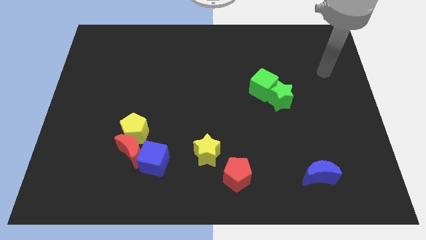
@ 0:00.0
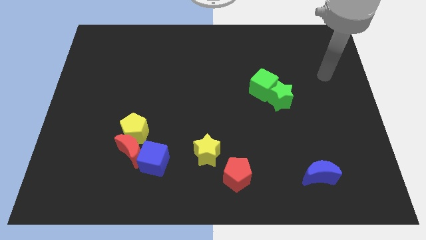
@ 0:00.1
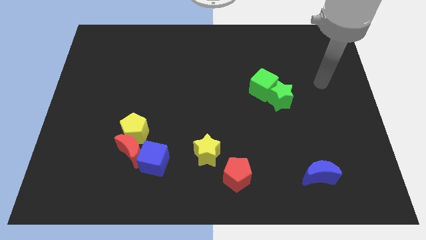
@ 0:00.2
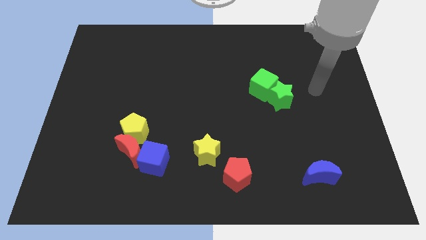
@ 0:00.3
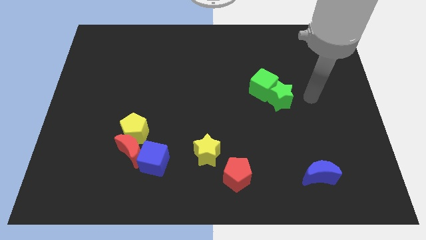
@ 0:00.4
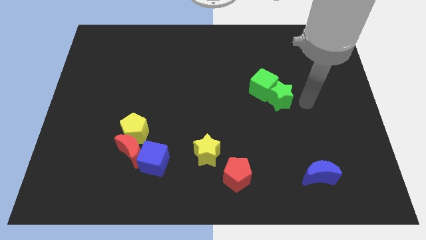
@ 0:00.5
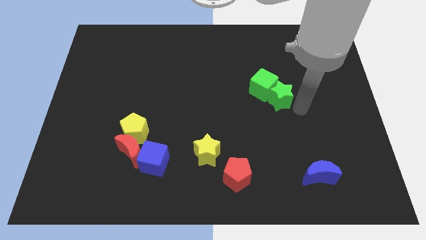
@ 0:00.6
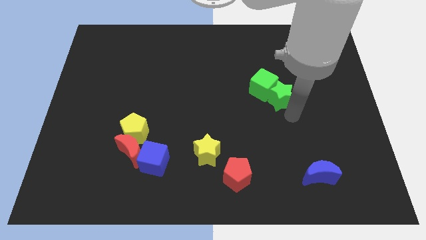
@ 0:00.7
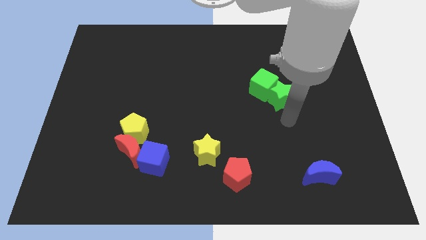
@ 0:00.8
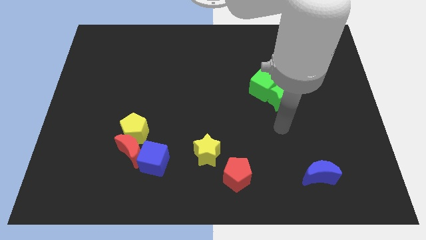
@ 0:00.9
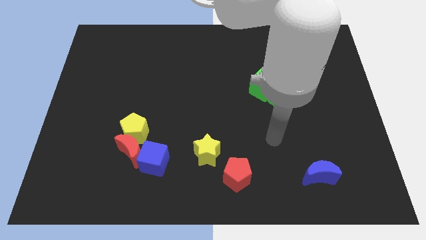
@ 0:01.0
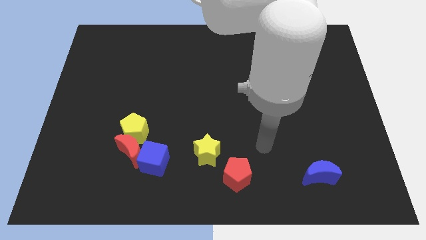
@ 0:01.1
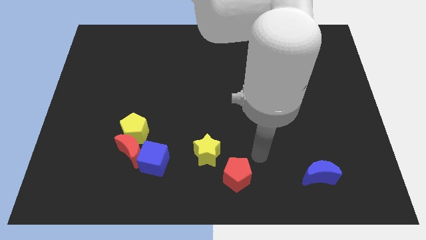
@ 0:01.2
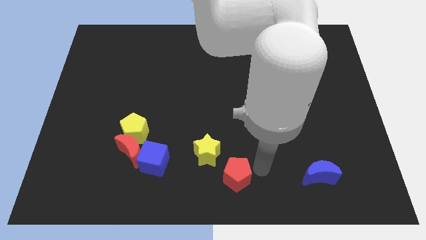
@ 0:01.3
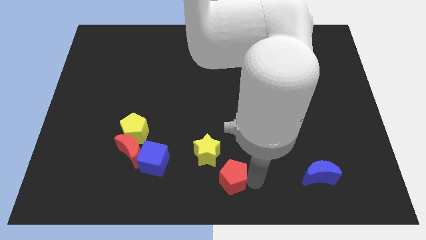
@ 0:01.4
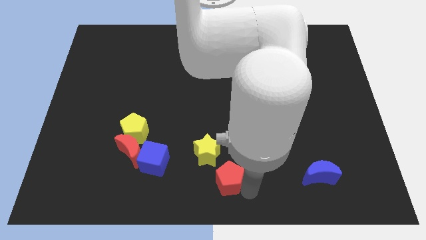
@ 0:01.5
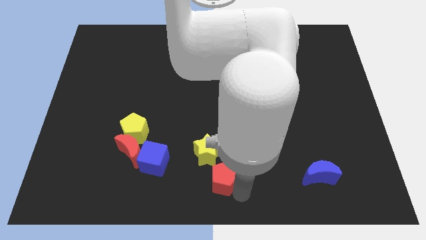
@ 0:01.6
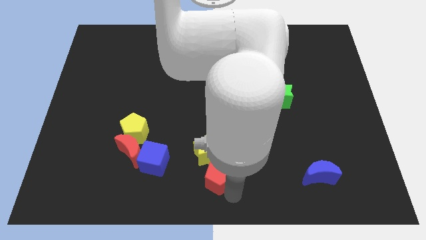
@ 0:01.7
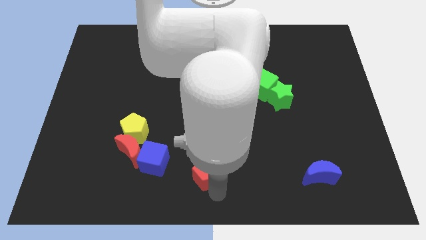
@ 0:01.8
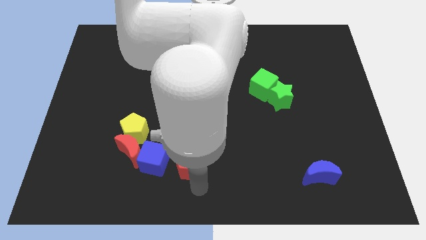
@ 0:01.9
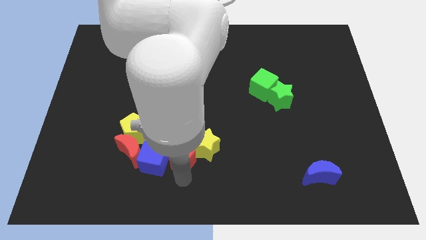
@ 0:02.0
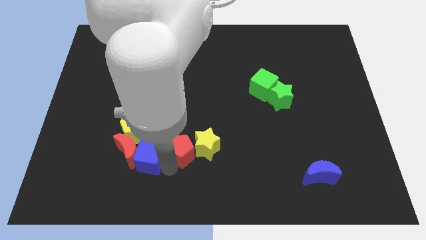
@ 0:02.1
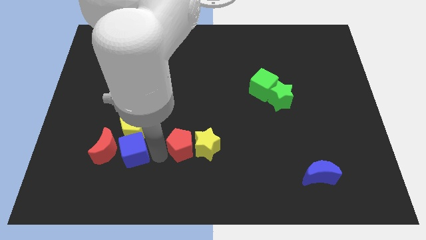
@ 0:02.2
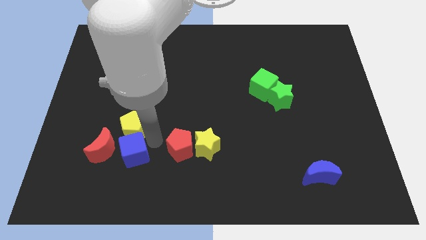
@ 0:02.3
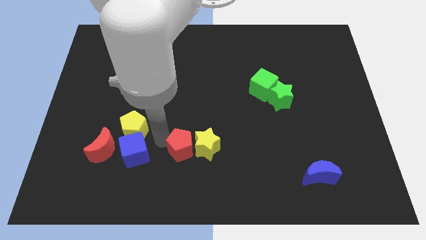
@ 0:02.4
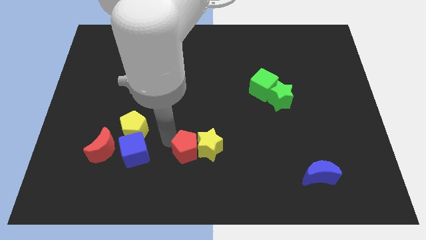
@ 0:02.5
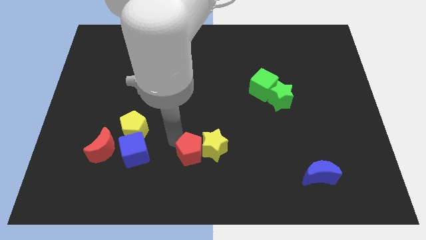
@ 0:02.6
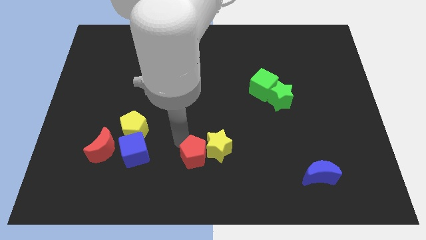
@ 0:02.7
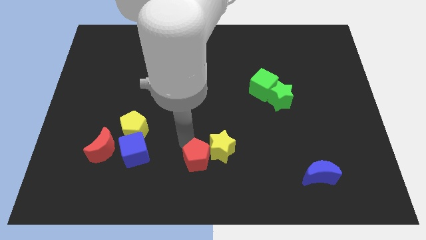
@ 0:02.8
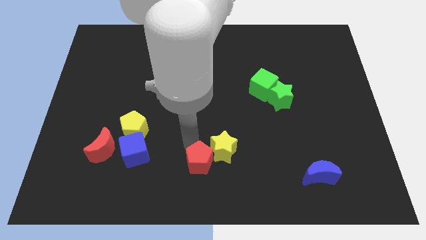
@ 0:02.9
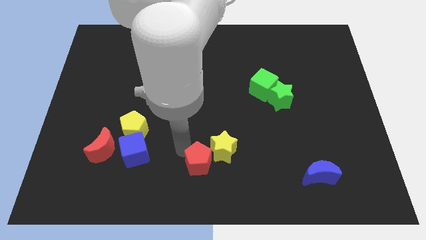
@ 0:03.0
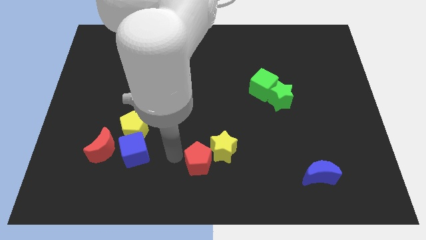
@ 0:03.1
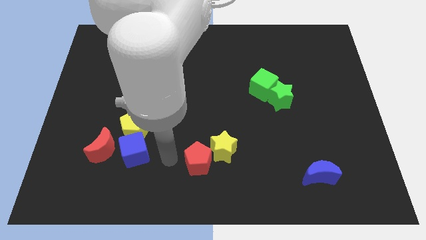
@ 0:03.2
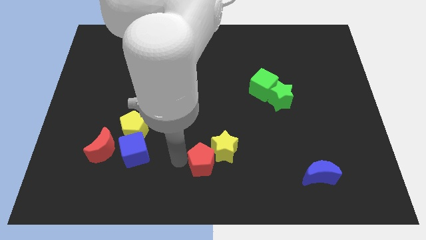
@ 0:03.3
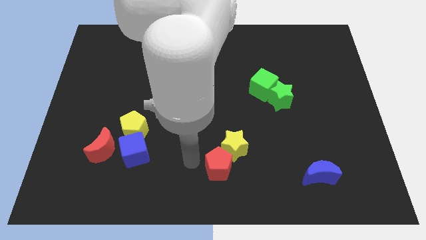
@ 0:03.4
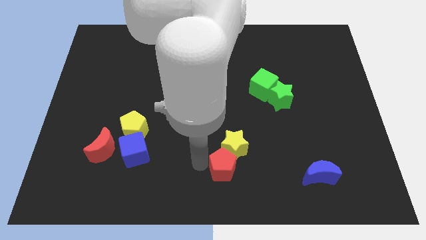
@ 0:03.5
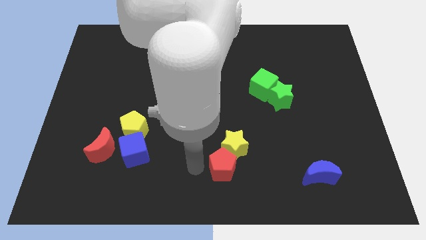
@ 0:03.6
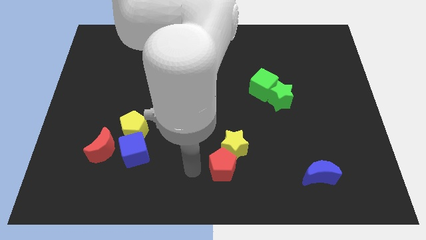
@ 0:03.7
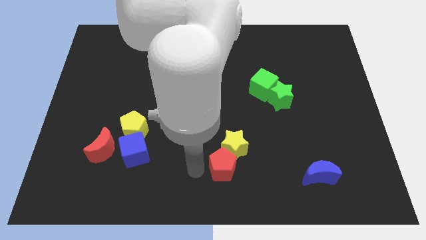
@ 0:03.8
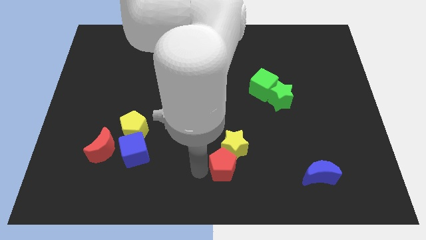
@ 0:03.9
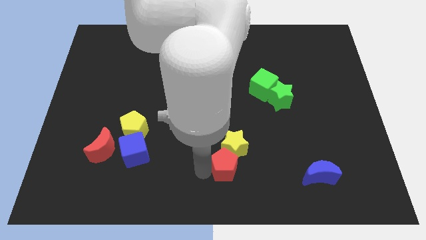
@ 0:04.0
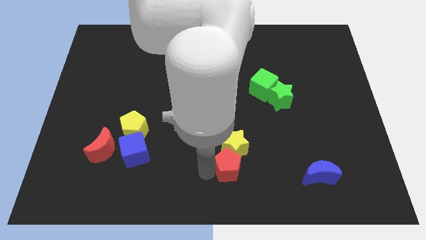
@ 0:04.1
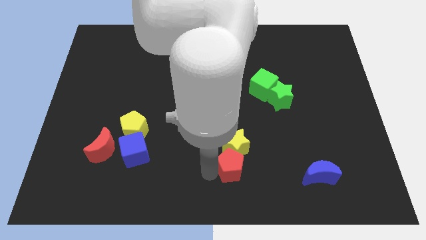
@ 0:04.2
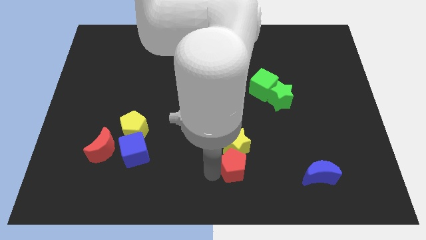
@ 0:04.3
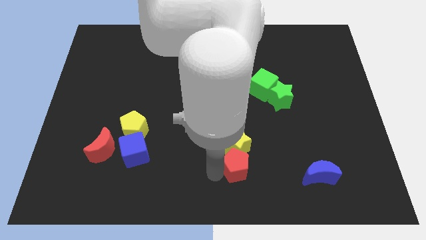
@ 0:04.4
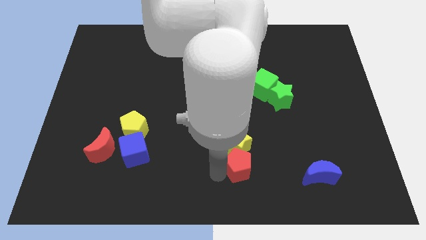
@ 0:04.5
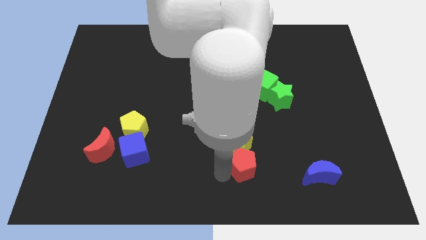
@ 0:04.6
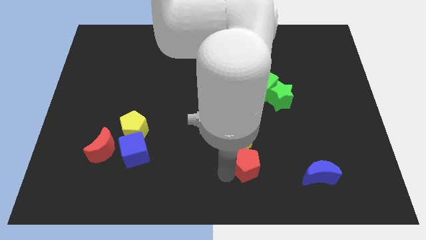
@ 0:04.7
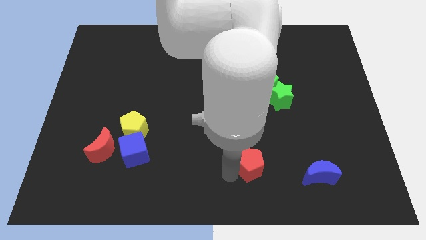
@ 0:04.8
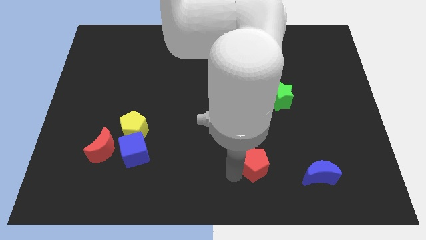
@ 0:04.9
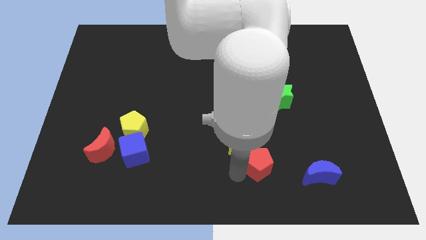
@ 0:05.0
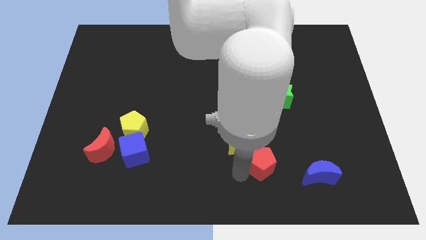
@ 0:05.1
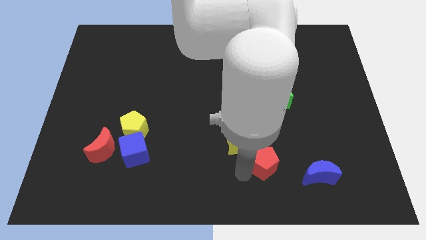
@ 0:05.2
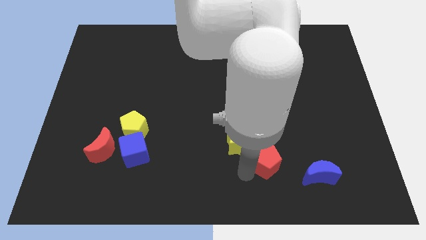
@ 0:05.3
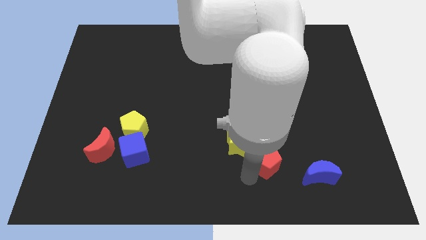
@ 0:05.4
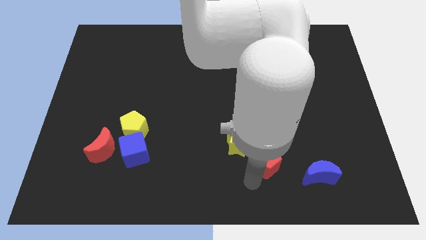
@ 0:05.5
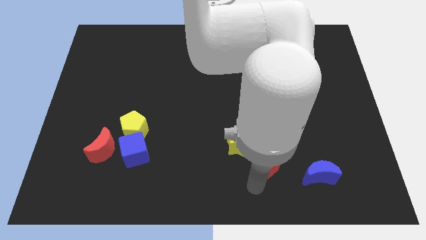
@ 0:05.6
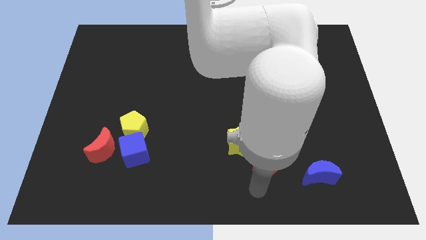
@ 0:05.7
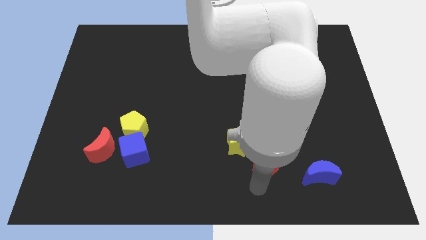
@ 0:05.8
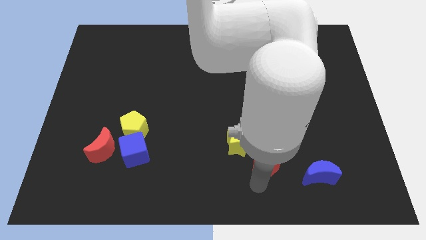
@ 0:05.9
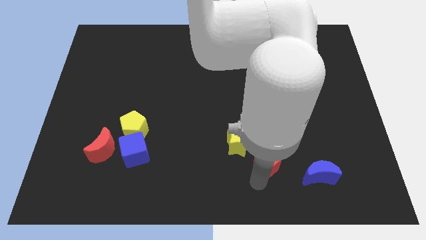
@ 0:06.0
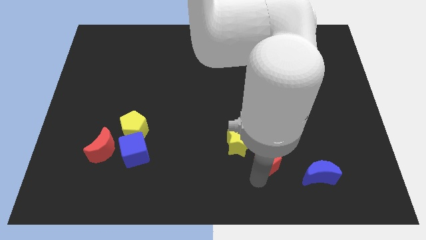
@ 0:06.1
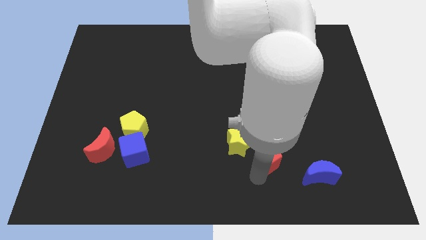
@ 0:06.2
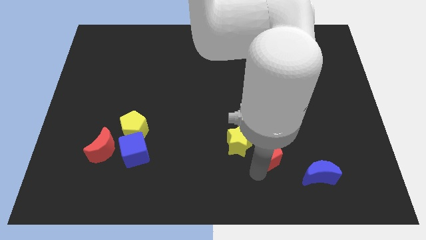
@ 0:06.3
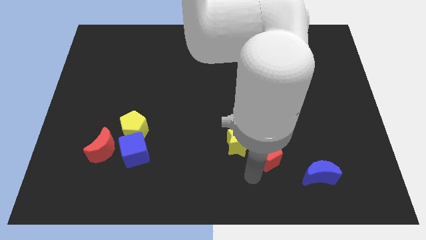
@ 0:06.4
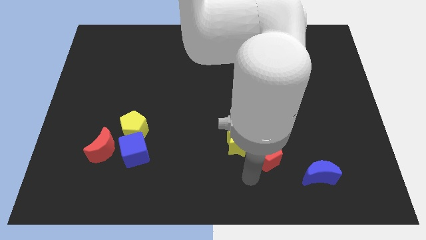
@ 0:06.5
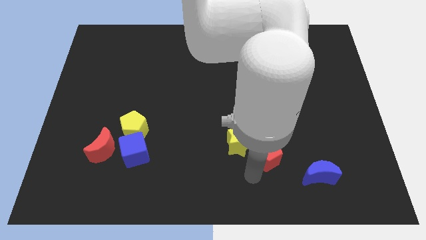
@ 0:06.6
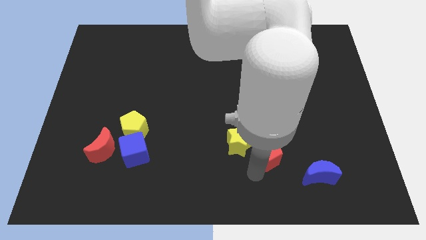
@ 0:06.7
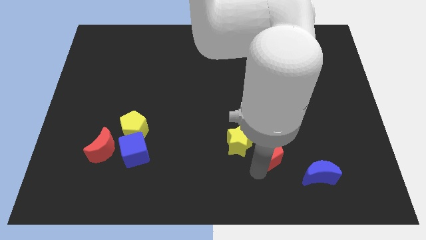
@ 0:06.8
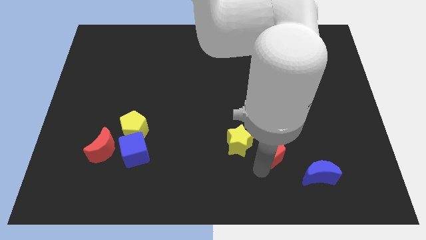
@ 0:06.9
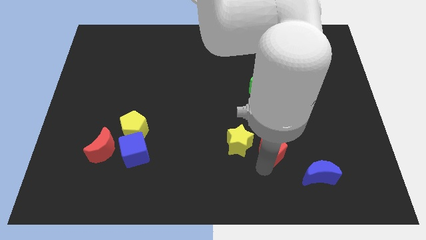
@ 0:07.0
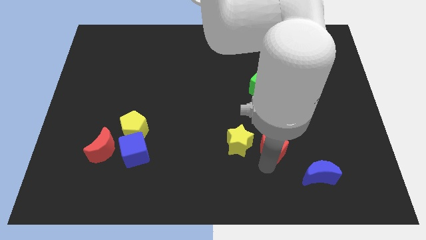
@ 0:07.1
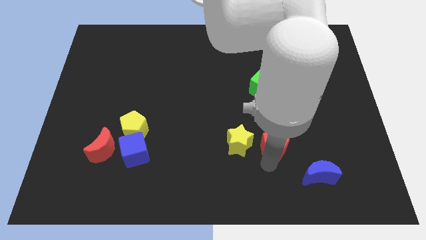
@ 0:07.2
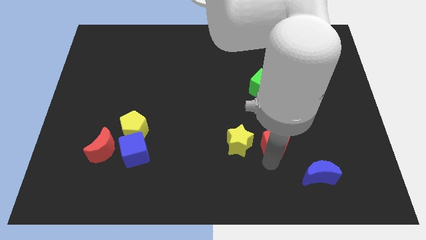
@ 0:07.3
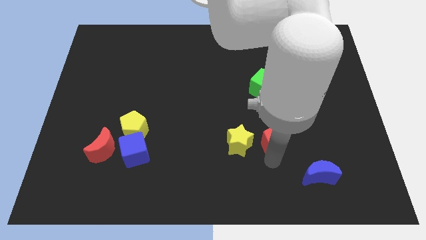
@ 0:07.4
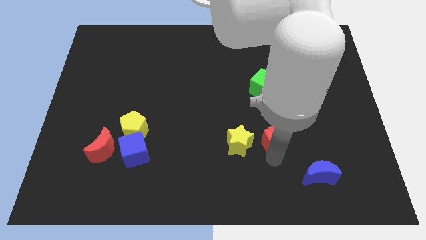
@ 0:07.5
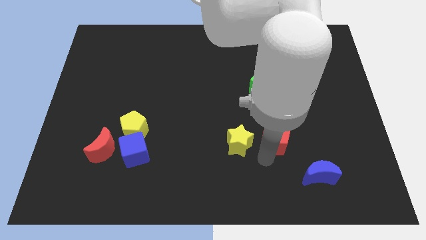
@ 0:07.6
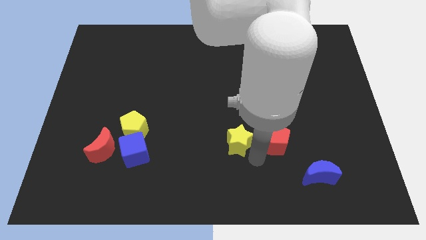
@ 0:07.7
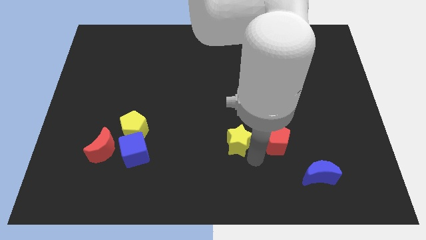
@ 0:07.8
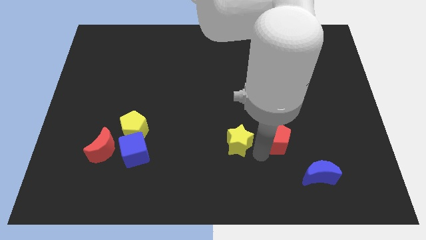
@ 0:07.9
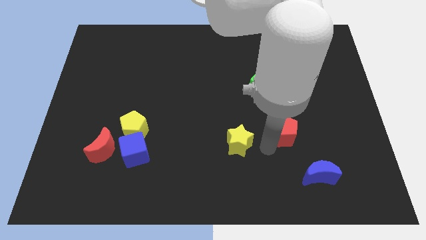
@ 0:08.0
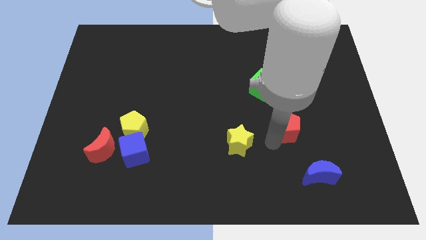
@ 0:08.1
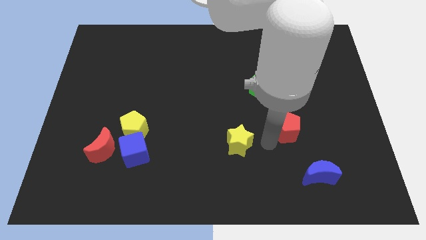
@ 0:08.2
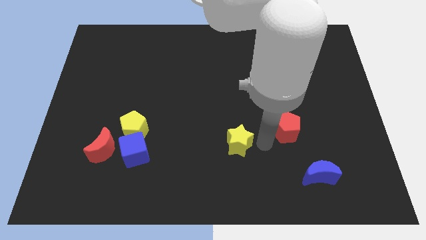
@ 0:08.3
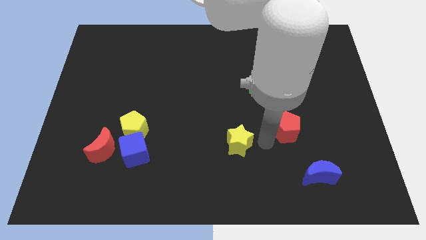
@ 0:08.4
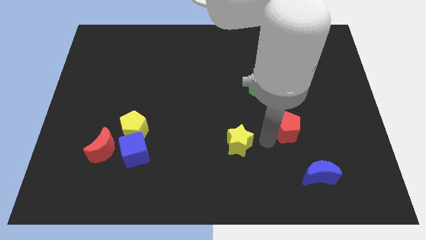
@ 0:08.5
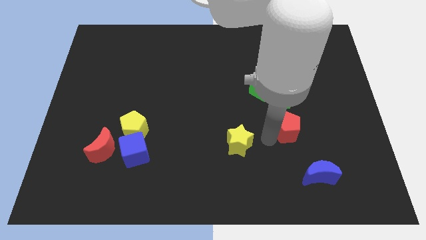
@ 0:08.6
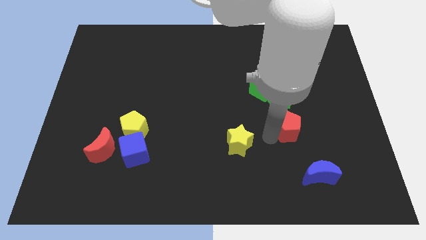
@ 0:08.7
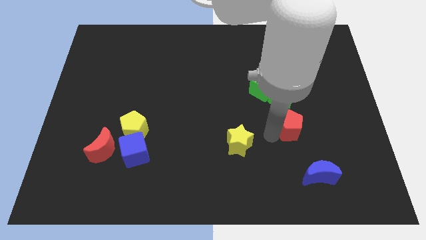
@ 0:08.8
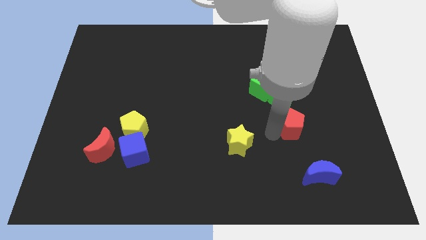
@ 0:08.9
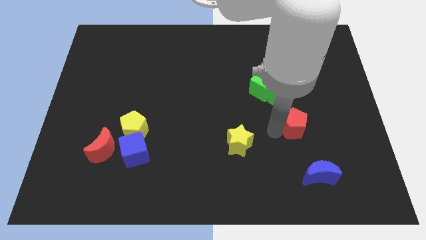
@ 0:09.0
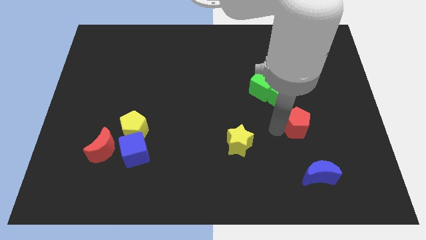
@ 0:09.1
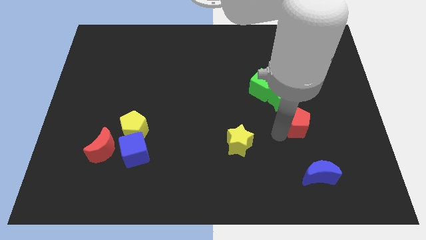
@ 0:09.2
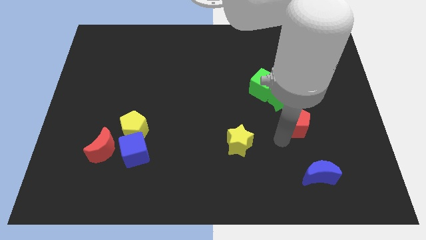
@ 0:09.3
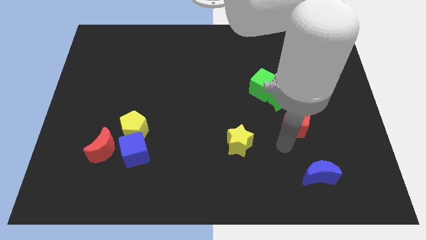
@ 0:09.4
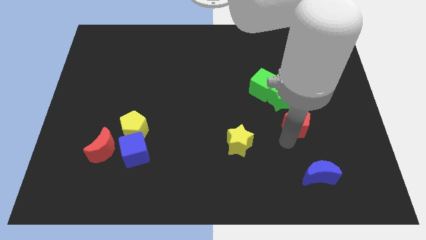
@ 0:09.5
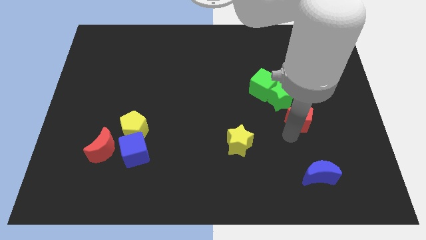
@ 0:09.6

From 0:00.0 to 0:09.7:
slide the red pentagon diagonally up and to the right
